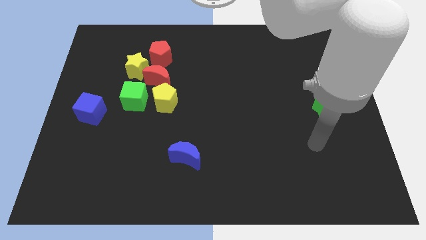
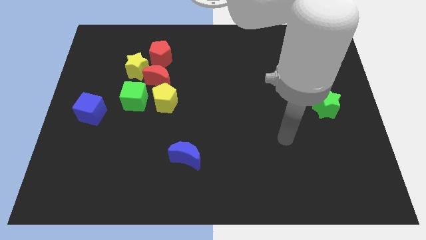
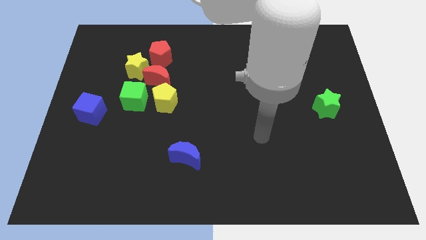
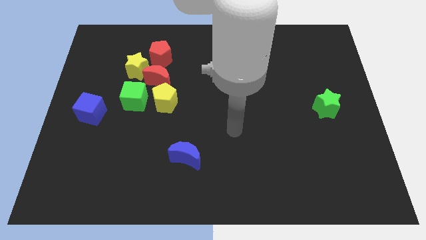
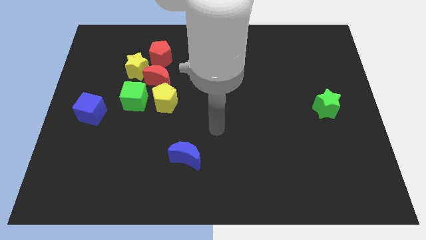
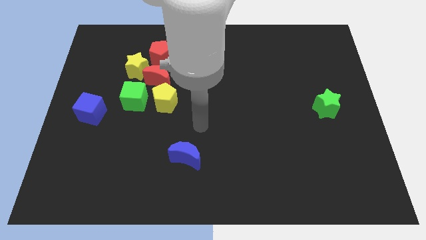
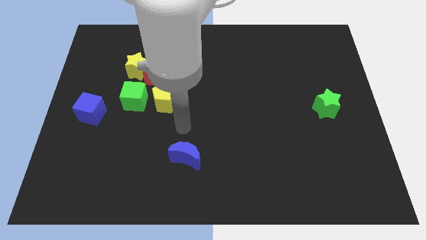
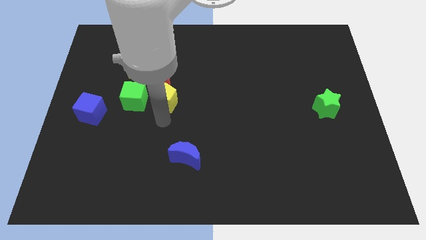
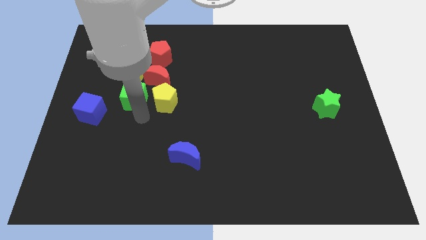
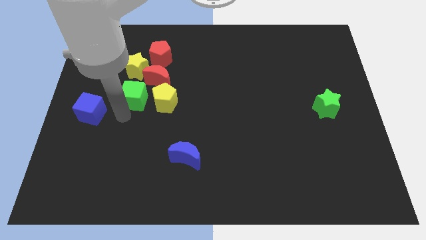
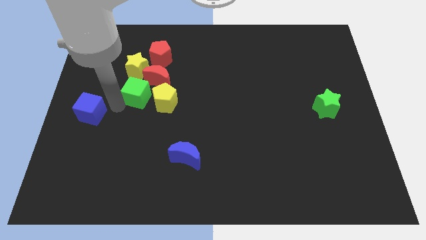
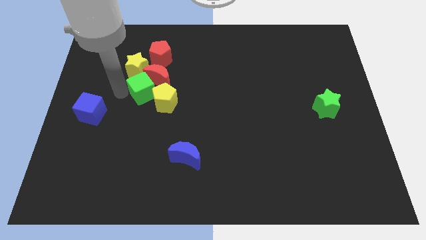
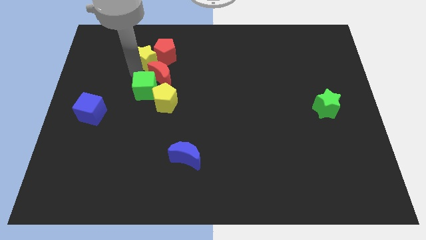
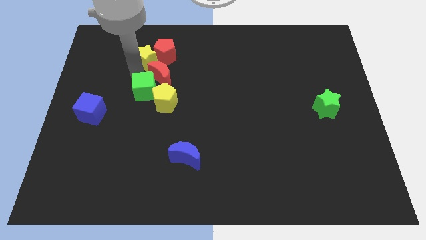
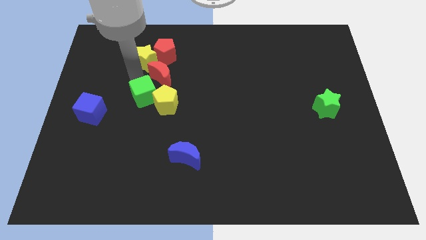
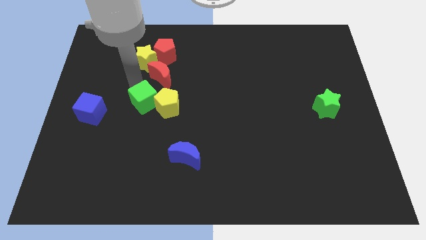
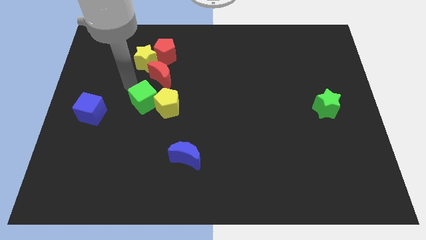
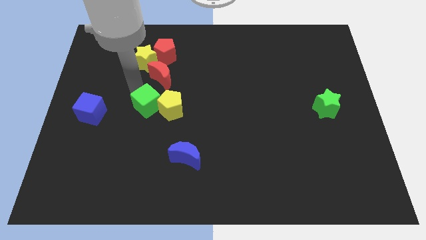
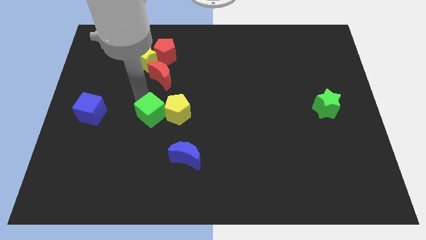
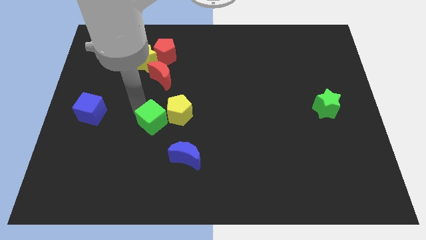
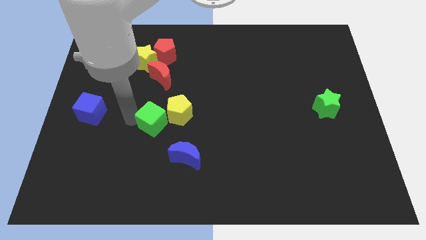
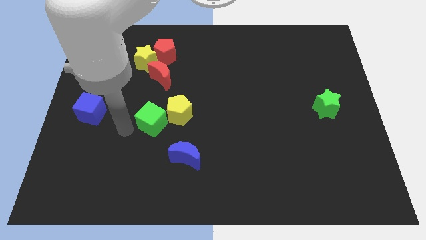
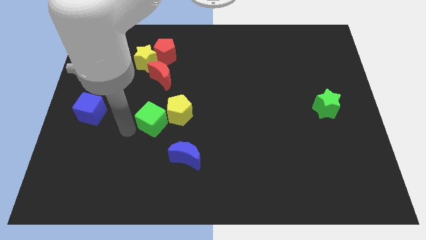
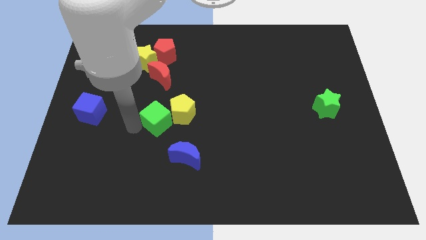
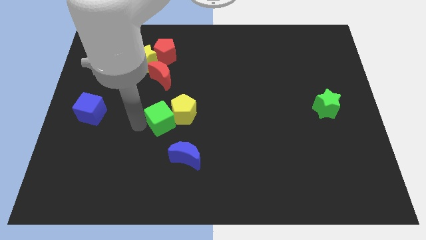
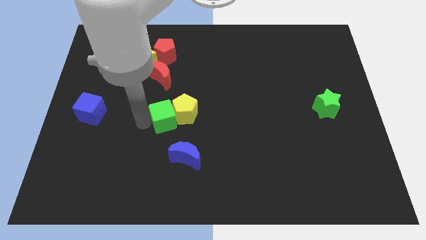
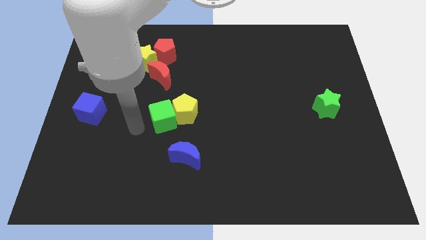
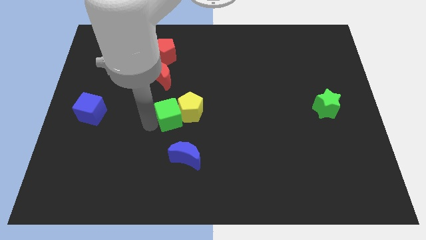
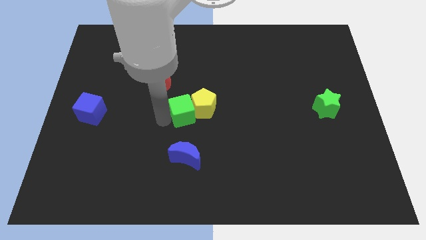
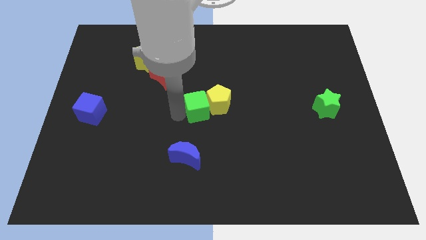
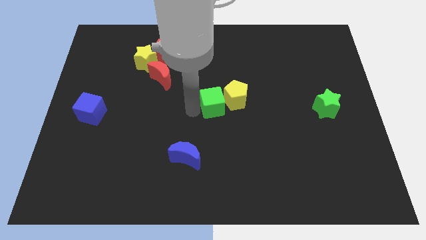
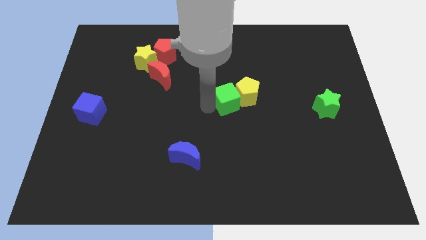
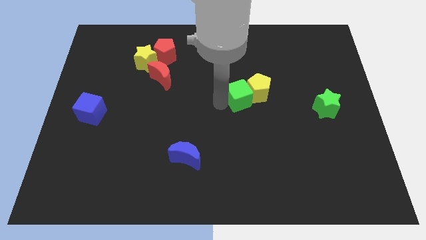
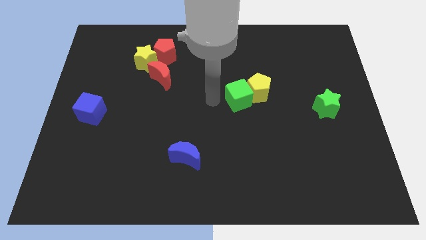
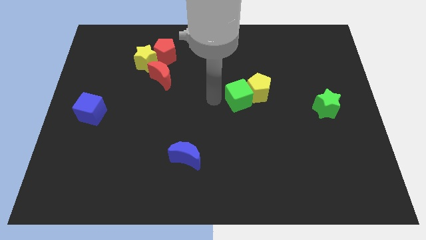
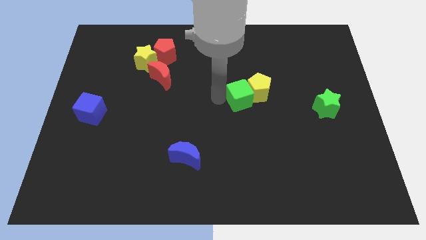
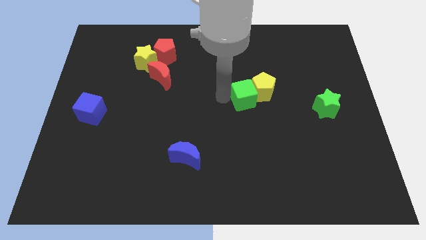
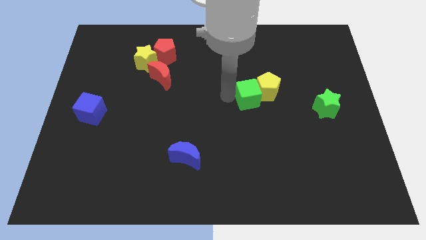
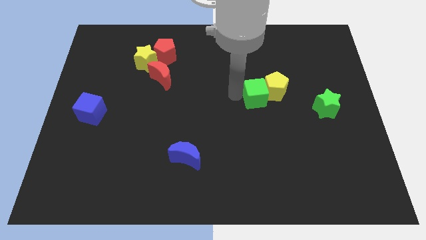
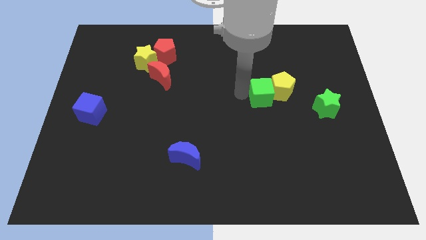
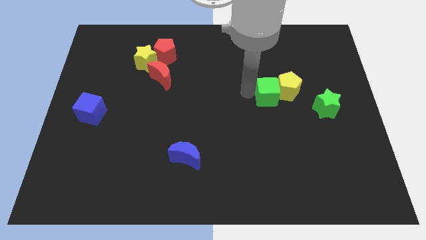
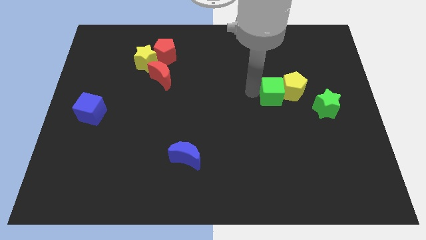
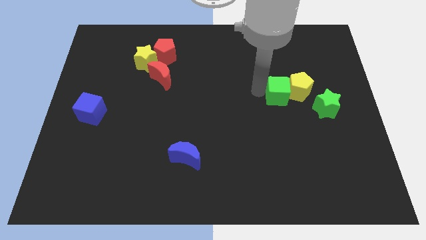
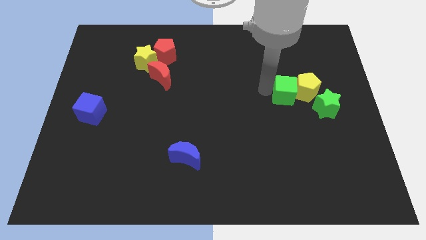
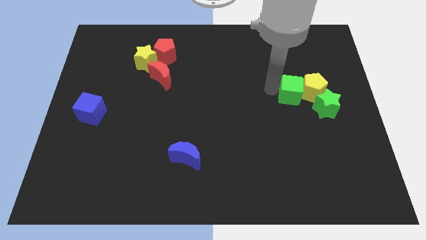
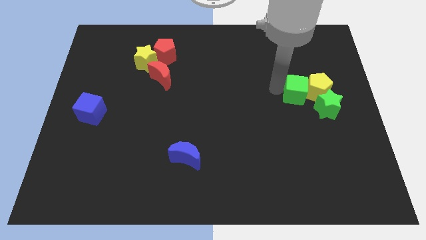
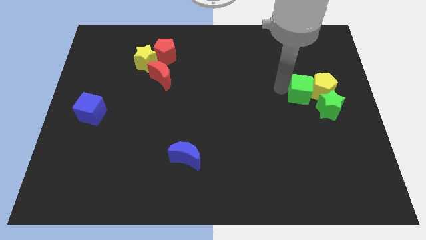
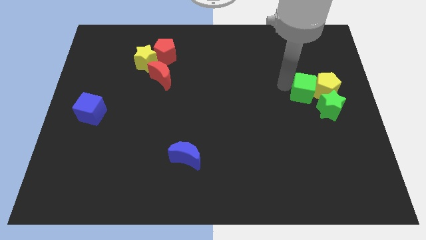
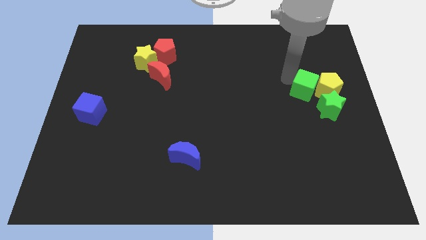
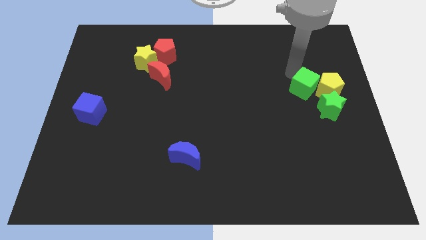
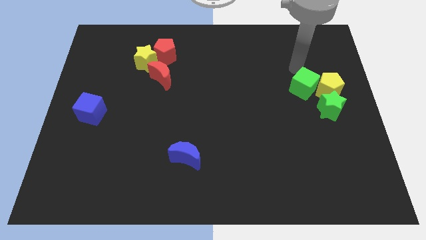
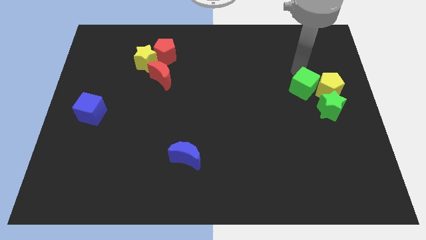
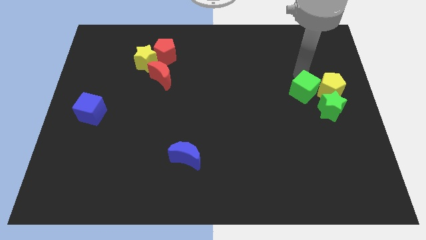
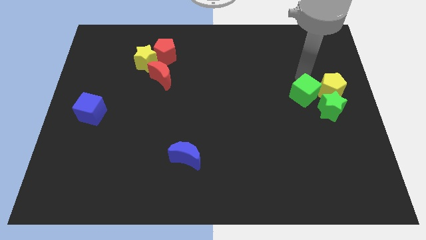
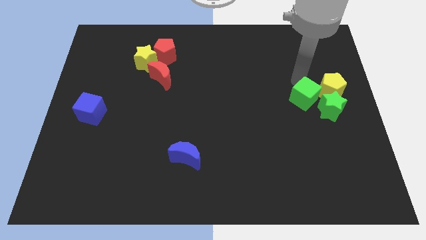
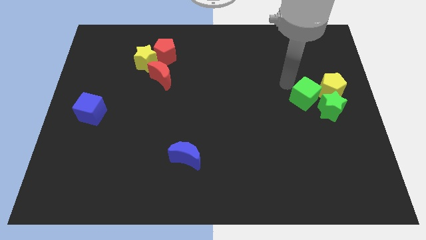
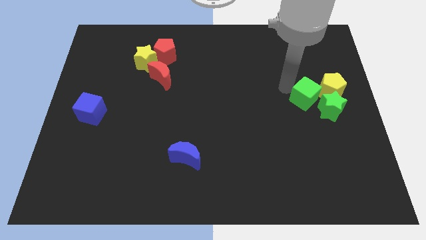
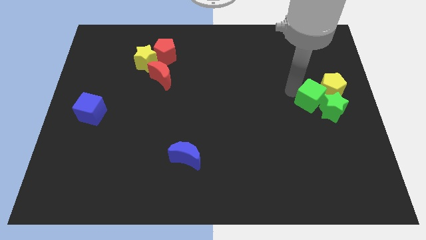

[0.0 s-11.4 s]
push the green cube next to the green star

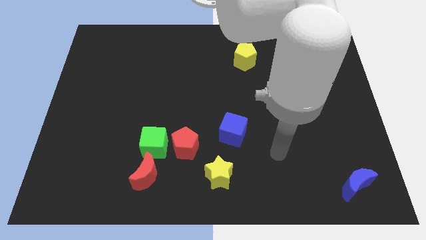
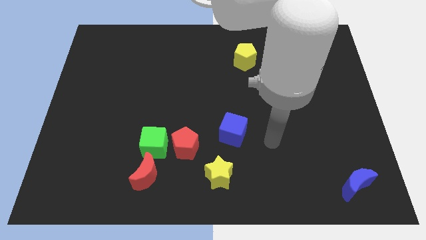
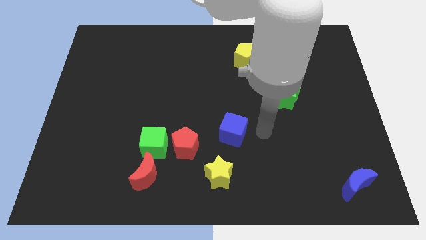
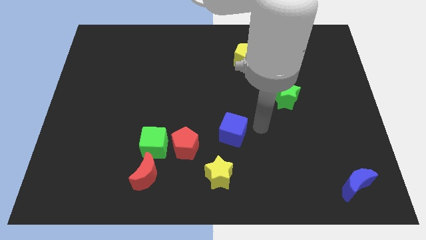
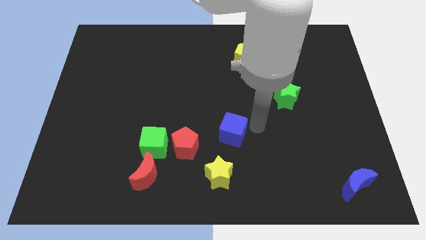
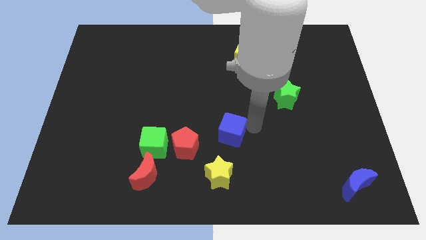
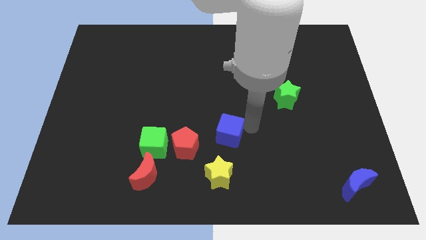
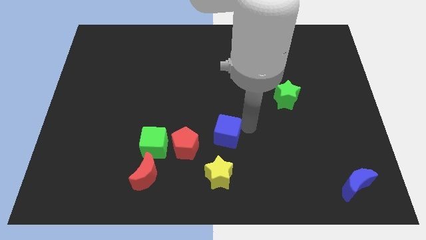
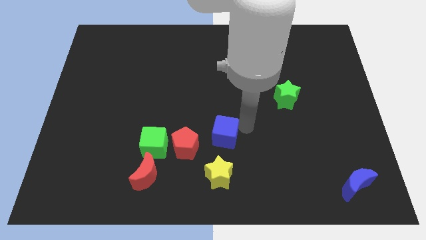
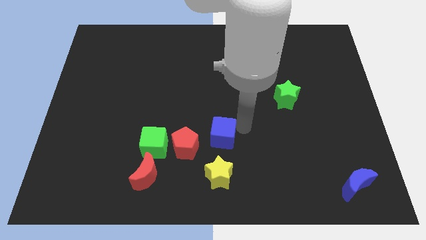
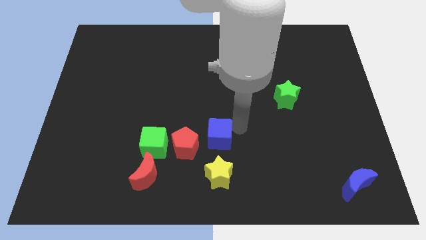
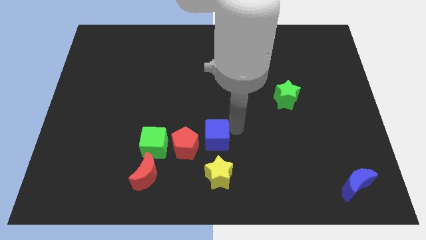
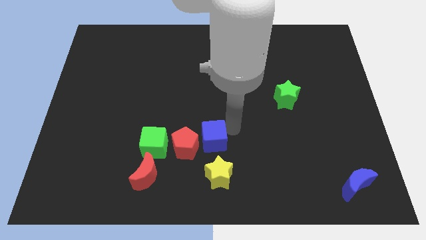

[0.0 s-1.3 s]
put the blue cube to the red pentagon
